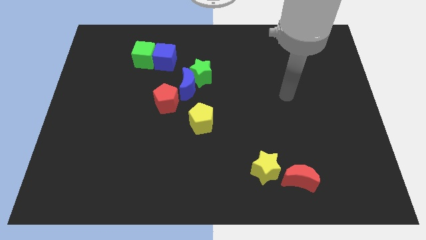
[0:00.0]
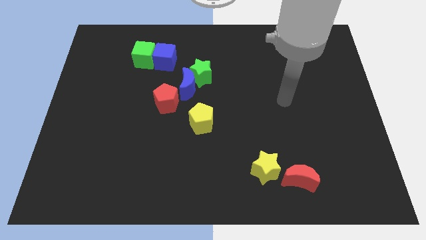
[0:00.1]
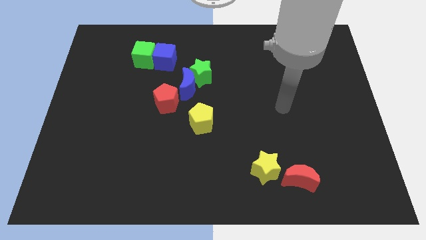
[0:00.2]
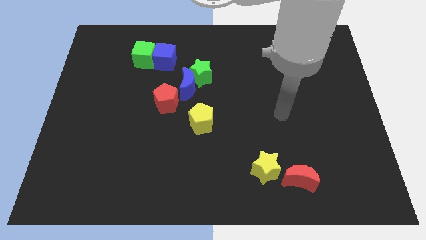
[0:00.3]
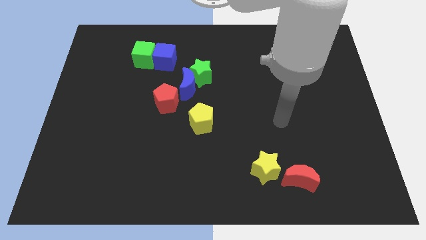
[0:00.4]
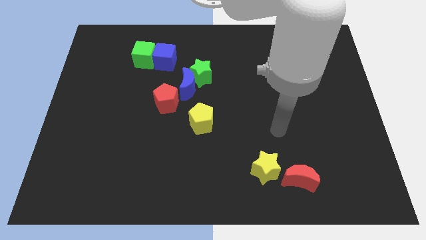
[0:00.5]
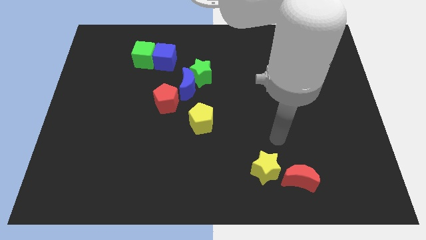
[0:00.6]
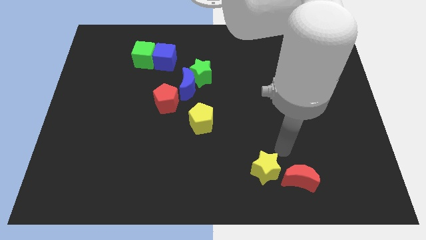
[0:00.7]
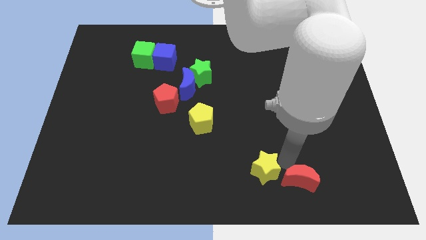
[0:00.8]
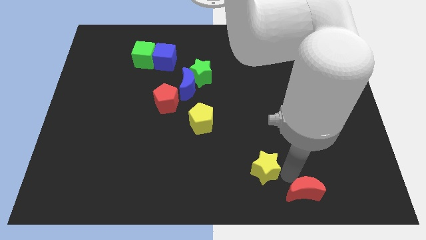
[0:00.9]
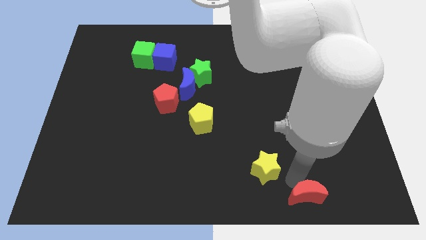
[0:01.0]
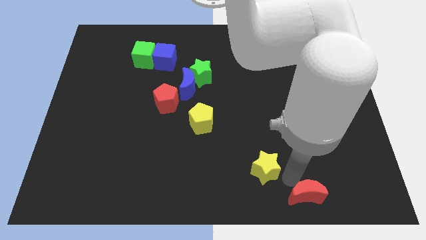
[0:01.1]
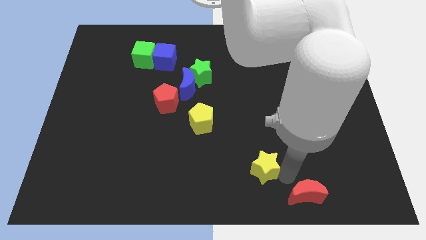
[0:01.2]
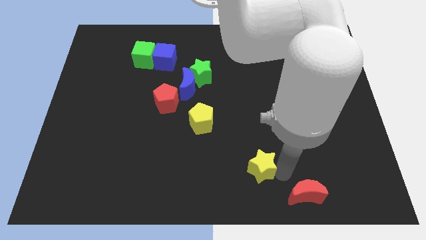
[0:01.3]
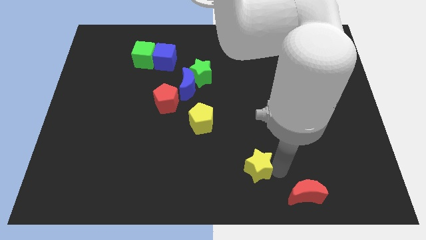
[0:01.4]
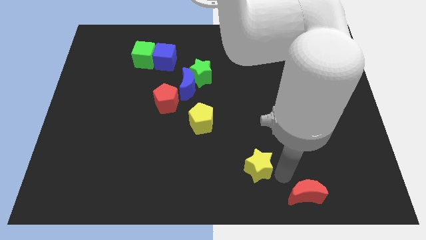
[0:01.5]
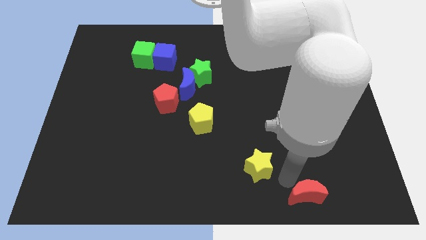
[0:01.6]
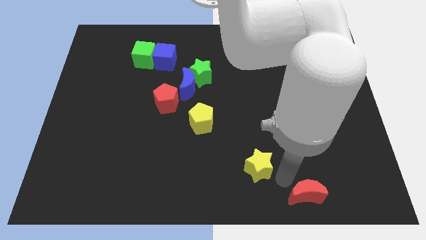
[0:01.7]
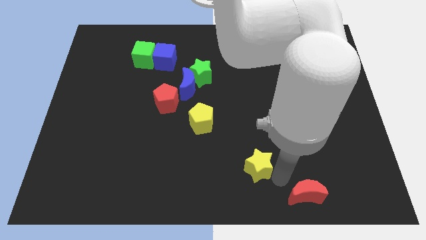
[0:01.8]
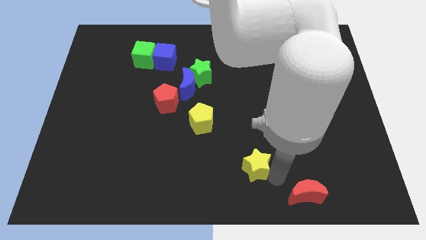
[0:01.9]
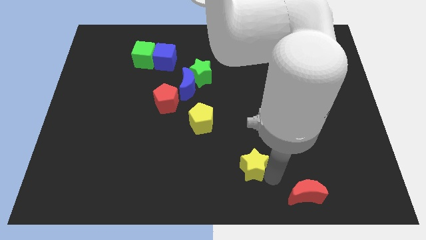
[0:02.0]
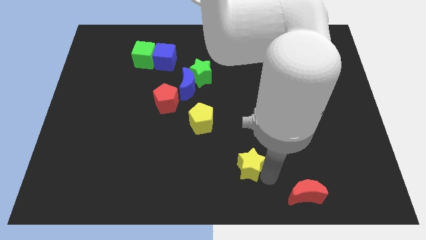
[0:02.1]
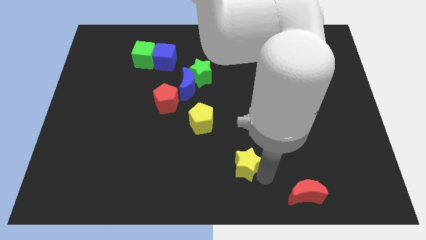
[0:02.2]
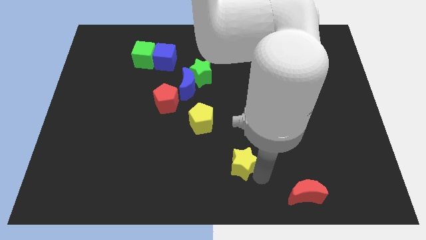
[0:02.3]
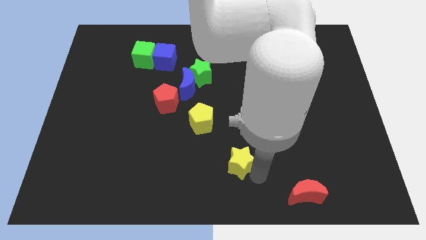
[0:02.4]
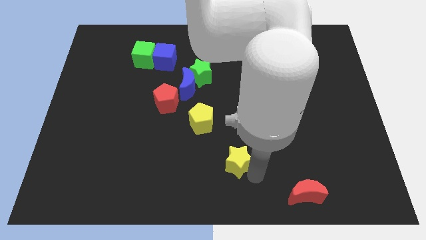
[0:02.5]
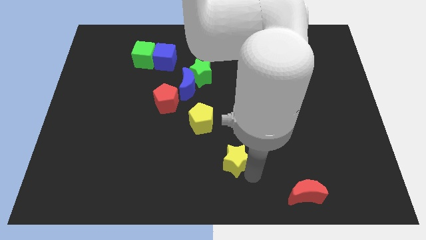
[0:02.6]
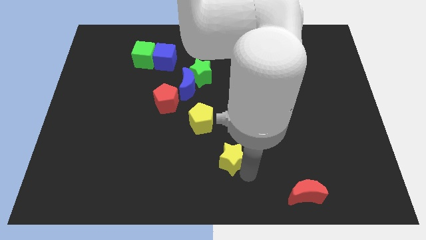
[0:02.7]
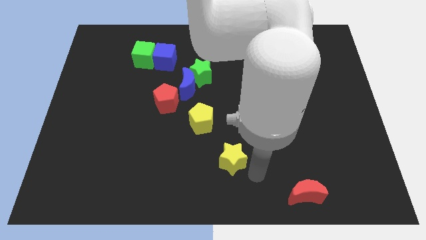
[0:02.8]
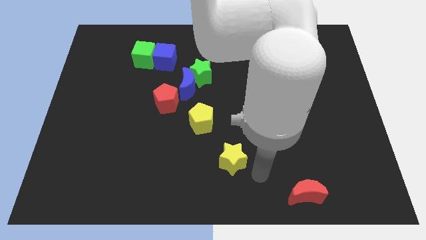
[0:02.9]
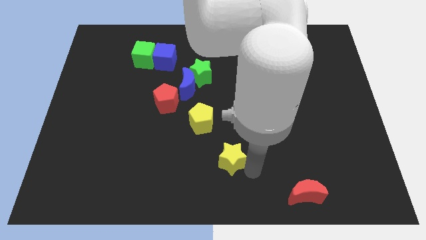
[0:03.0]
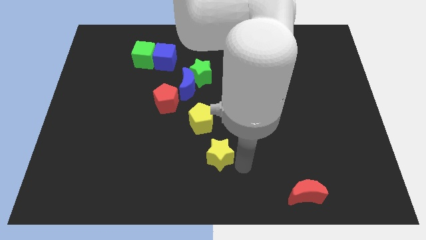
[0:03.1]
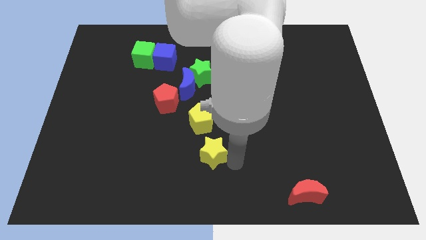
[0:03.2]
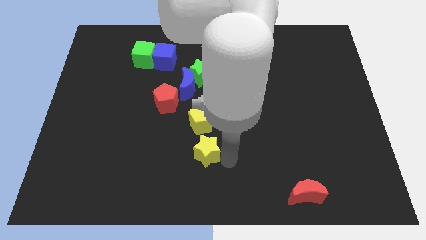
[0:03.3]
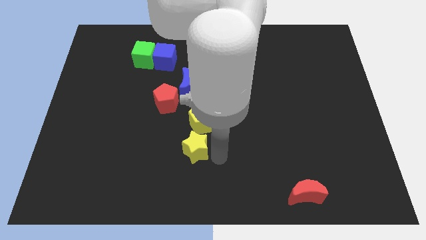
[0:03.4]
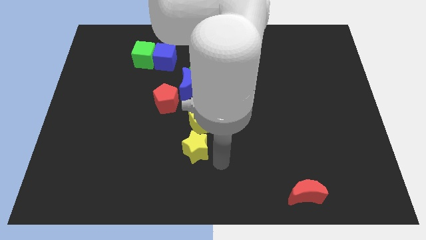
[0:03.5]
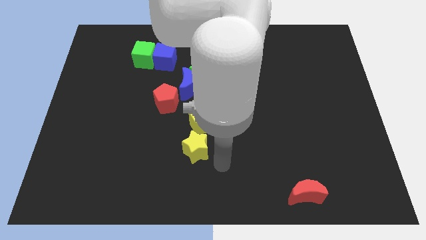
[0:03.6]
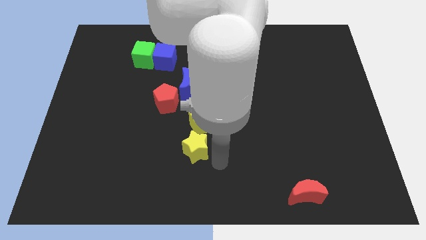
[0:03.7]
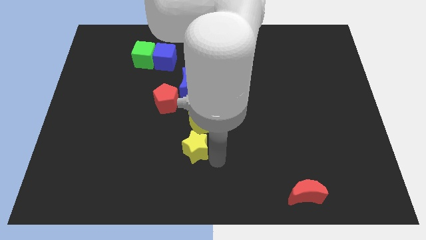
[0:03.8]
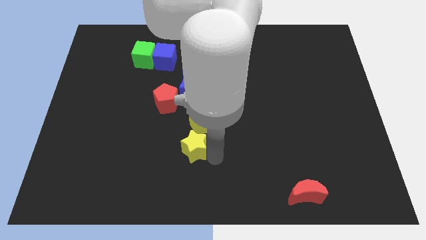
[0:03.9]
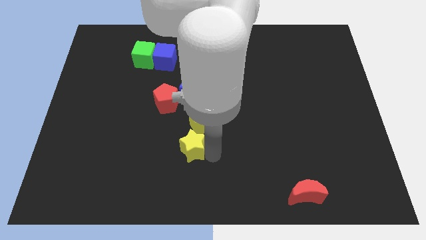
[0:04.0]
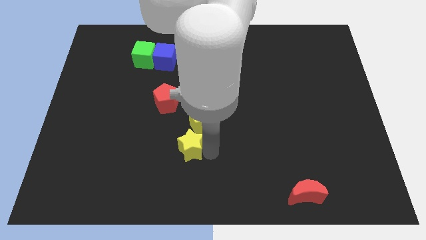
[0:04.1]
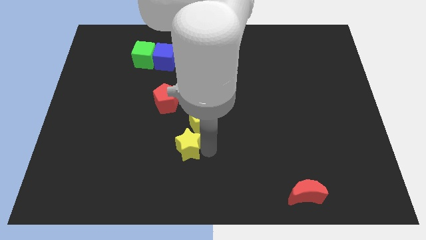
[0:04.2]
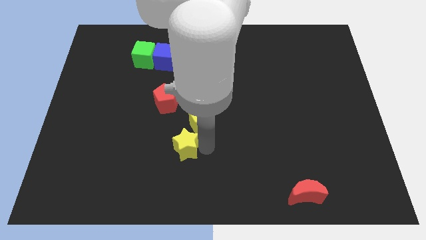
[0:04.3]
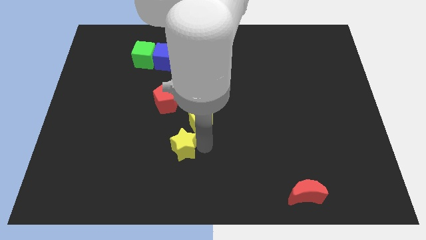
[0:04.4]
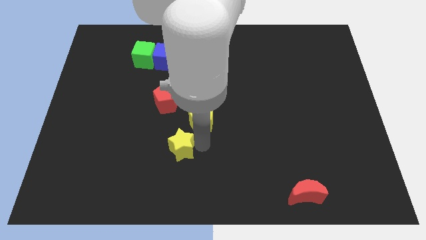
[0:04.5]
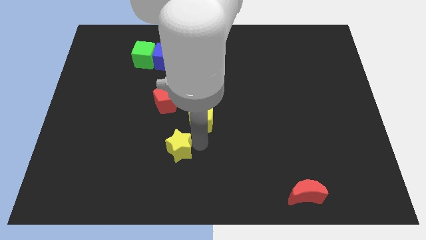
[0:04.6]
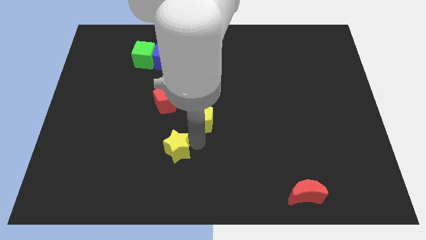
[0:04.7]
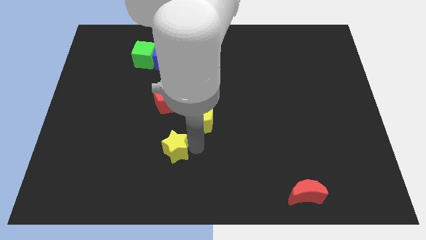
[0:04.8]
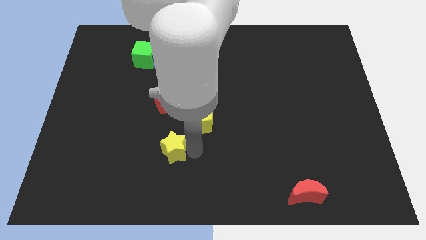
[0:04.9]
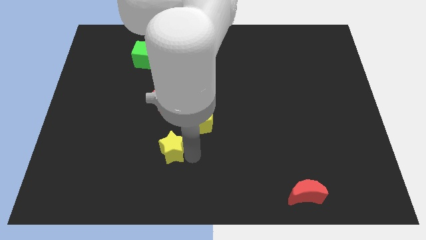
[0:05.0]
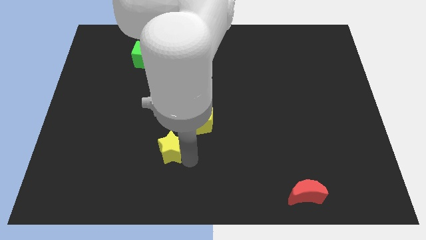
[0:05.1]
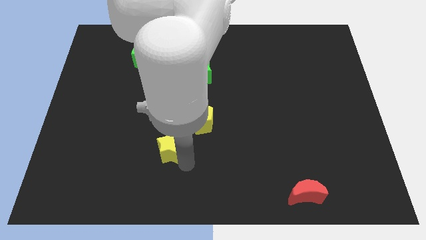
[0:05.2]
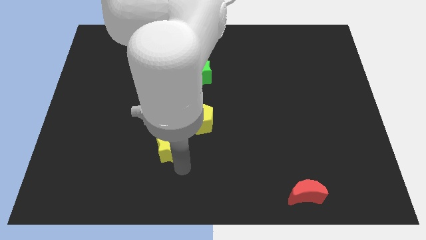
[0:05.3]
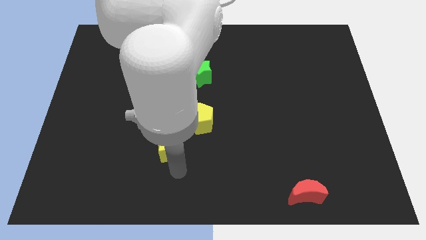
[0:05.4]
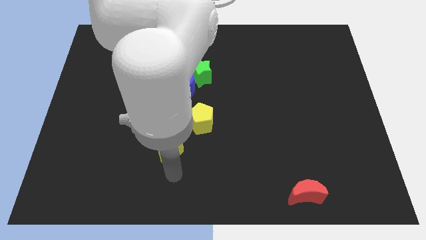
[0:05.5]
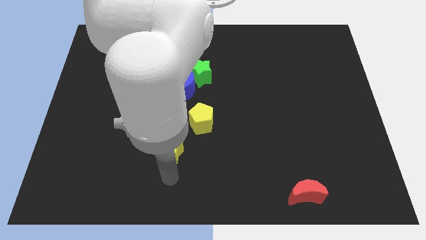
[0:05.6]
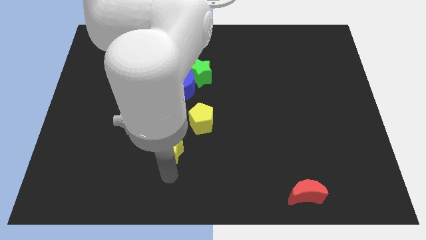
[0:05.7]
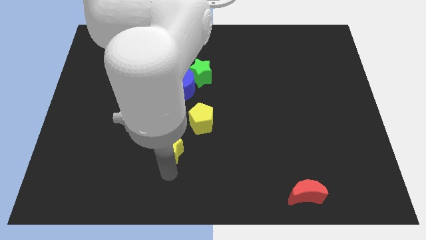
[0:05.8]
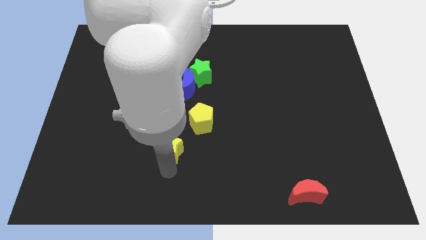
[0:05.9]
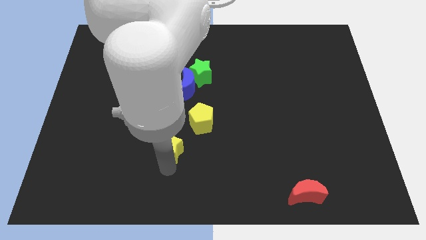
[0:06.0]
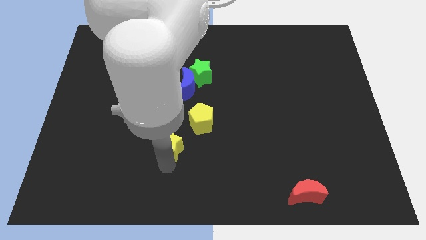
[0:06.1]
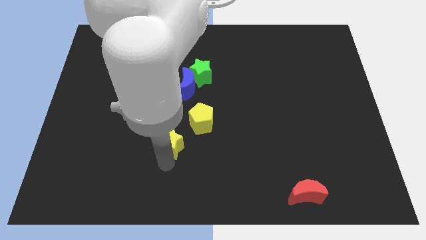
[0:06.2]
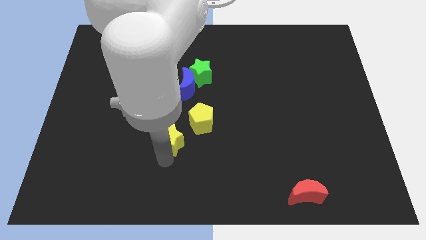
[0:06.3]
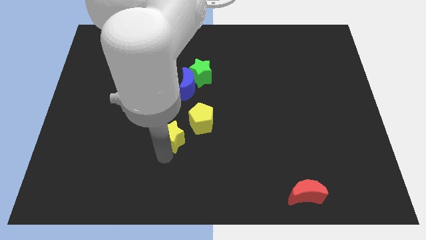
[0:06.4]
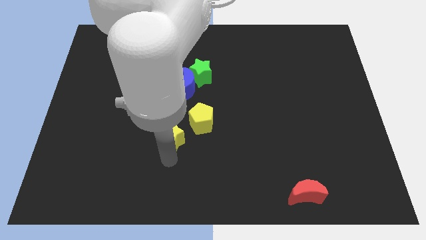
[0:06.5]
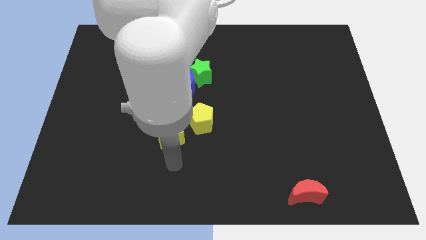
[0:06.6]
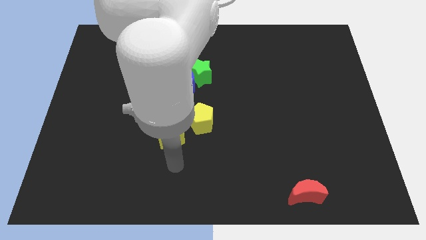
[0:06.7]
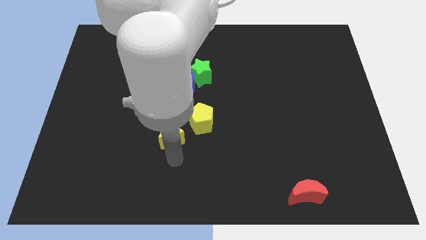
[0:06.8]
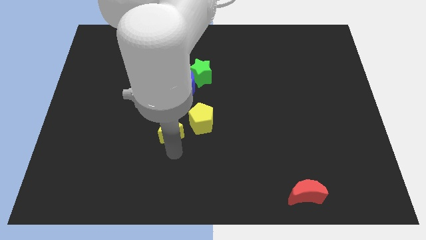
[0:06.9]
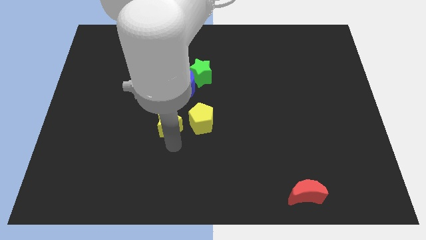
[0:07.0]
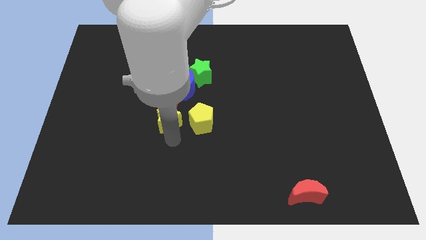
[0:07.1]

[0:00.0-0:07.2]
push the yellow star close to the red pentagon

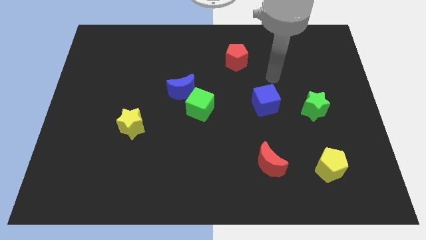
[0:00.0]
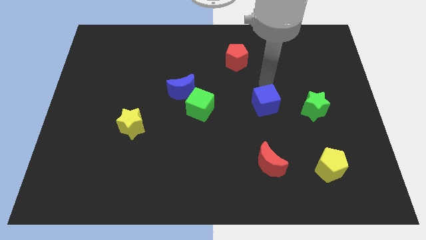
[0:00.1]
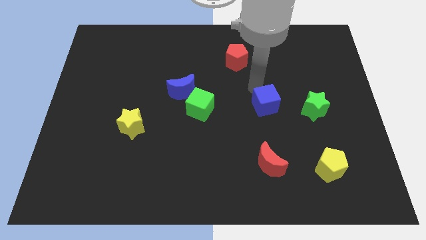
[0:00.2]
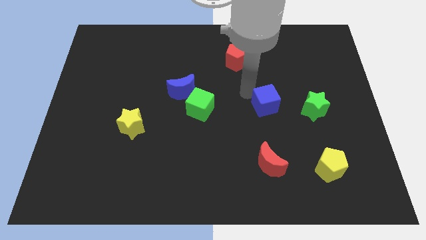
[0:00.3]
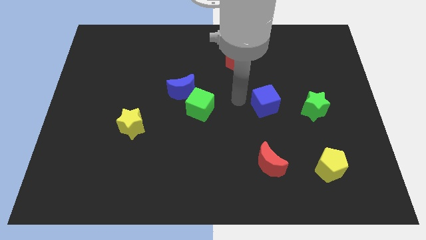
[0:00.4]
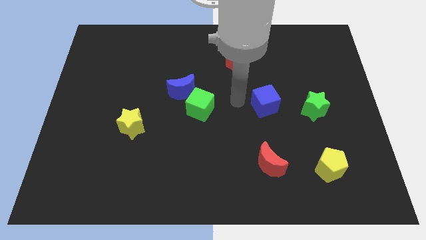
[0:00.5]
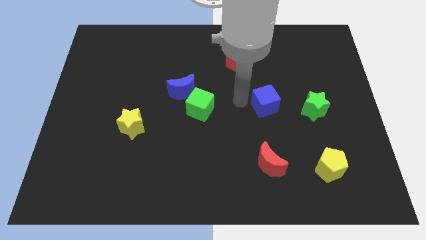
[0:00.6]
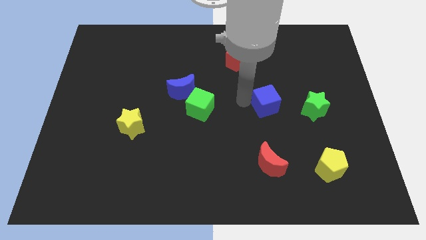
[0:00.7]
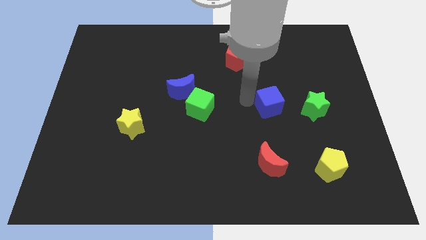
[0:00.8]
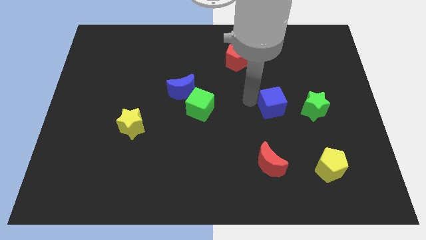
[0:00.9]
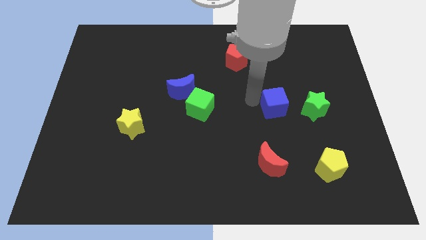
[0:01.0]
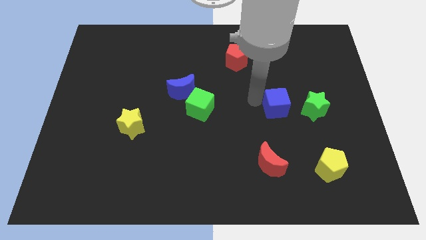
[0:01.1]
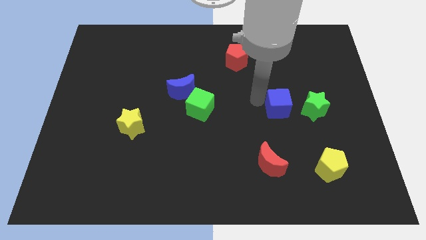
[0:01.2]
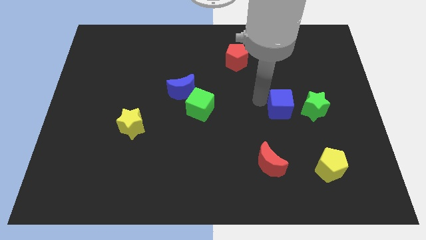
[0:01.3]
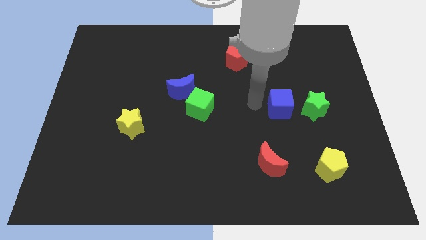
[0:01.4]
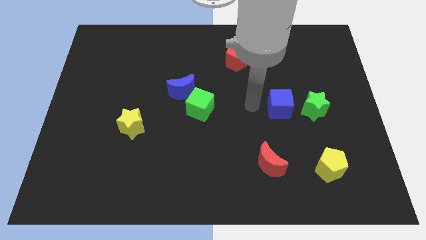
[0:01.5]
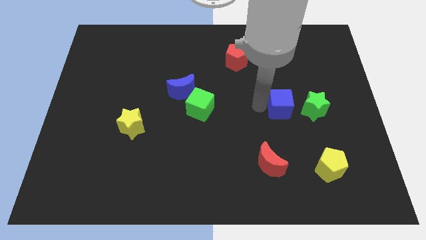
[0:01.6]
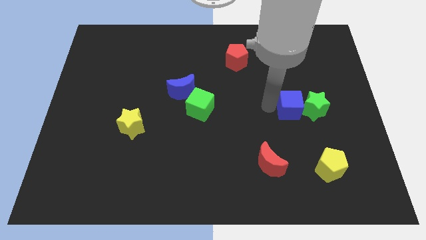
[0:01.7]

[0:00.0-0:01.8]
move the blue cube close to the green star
